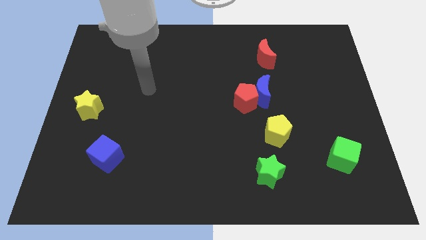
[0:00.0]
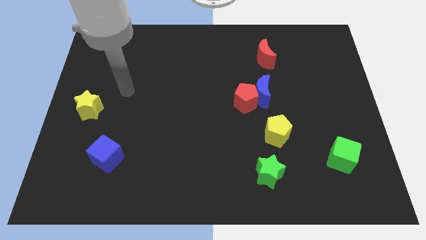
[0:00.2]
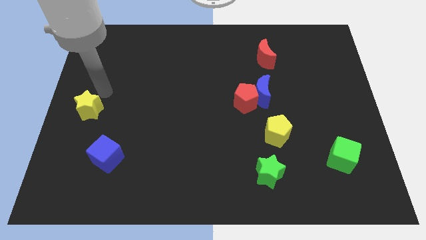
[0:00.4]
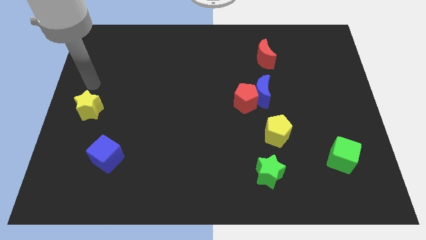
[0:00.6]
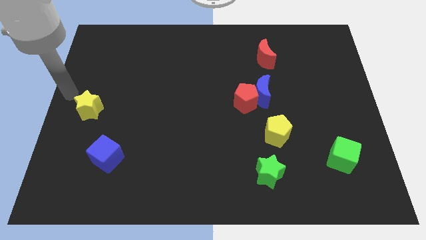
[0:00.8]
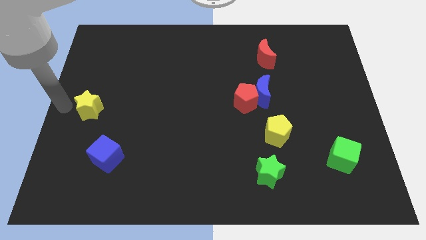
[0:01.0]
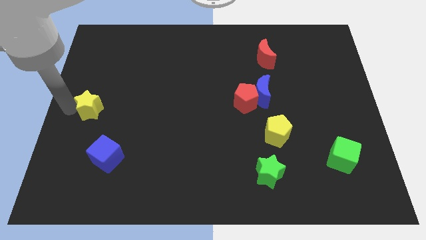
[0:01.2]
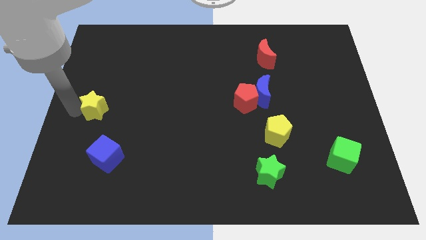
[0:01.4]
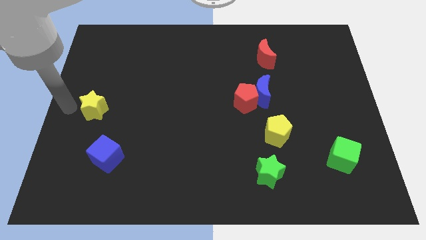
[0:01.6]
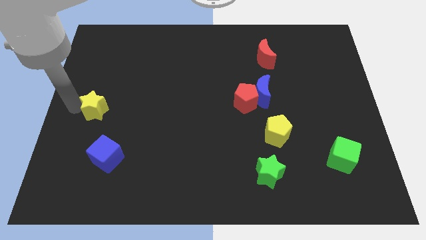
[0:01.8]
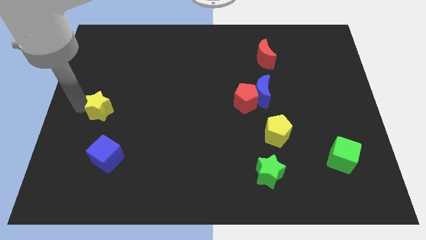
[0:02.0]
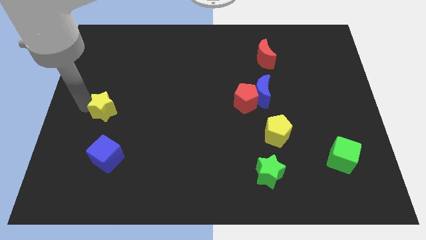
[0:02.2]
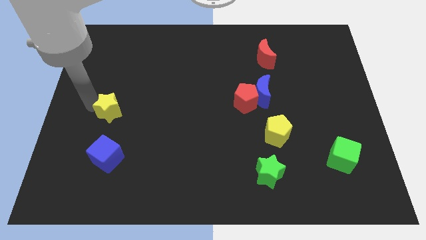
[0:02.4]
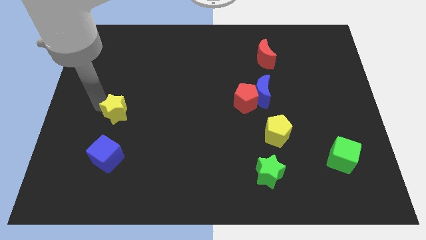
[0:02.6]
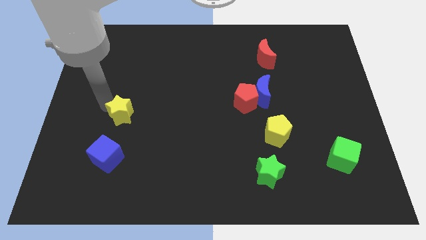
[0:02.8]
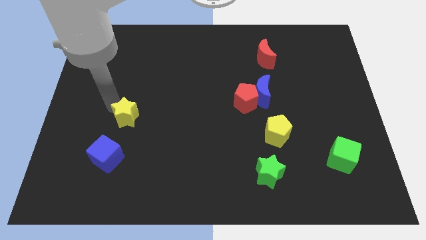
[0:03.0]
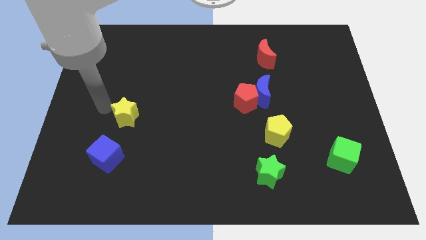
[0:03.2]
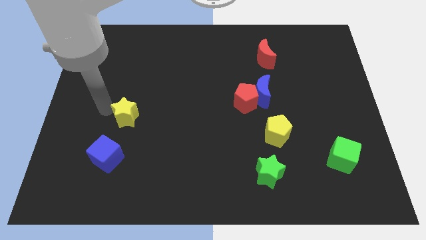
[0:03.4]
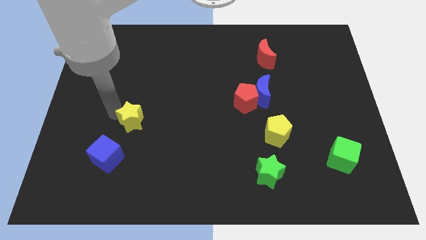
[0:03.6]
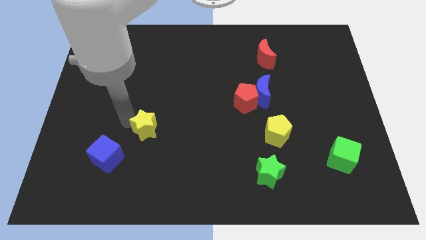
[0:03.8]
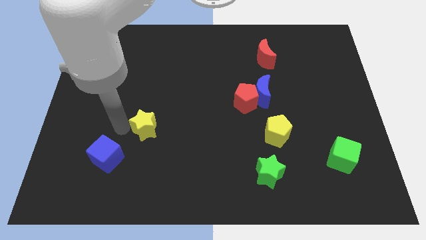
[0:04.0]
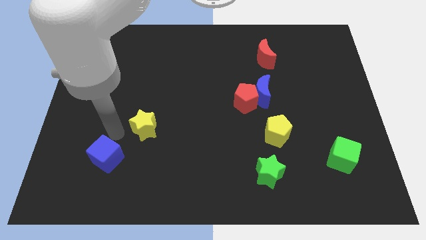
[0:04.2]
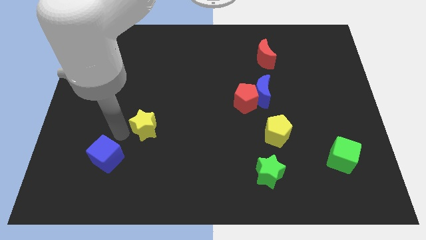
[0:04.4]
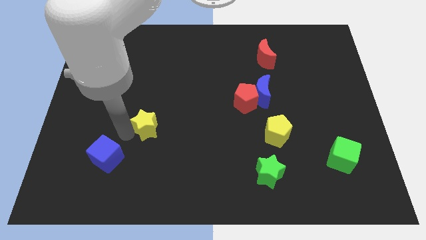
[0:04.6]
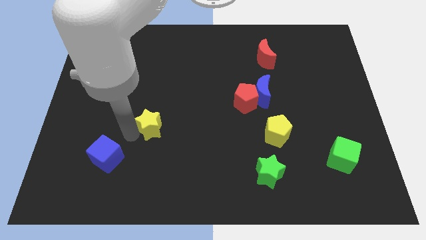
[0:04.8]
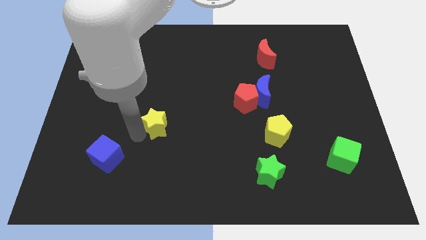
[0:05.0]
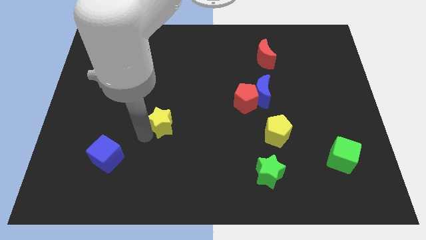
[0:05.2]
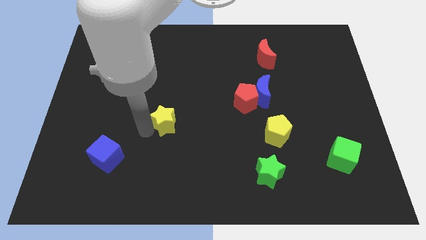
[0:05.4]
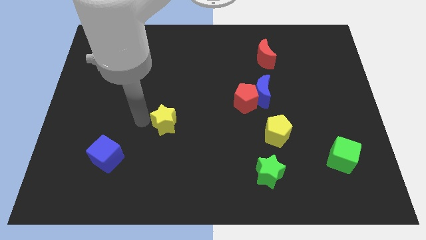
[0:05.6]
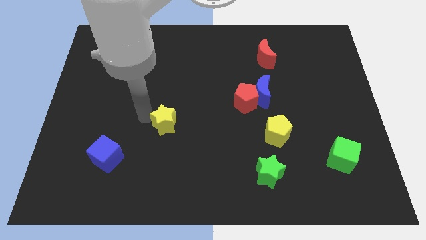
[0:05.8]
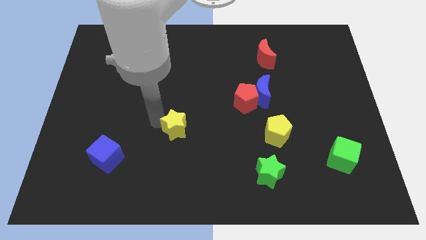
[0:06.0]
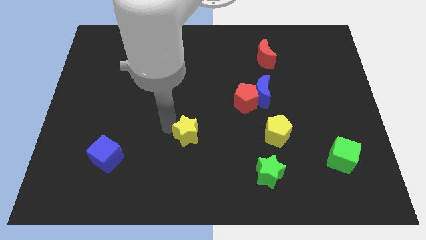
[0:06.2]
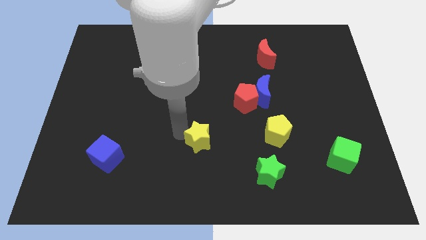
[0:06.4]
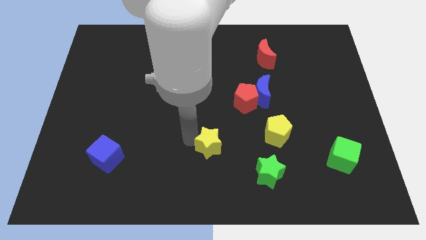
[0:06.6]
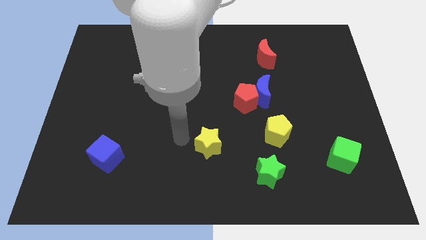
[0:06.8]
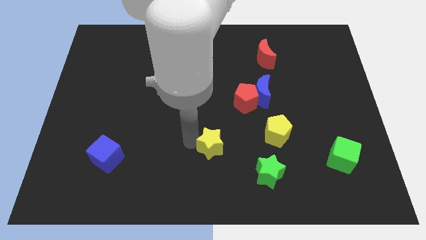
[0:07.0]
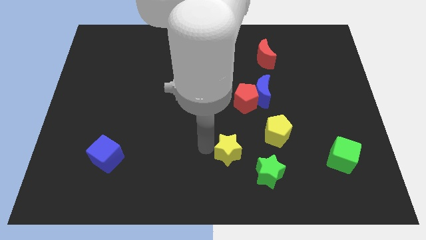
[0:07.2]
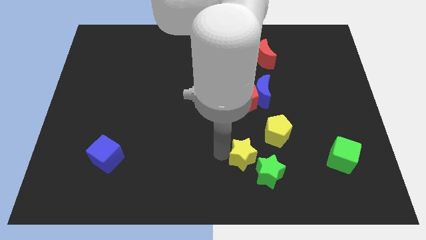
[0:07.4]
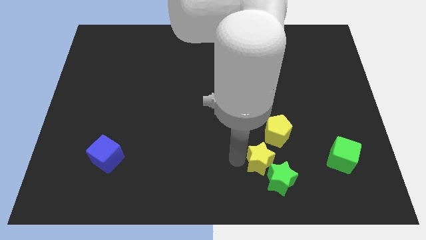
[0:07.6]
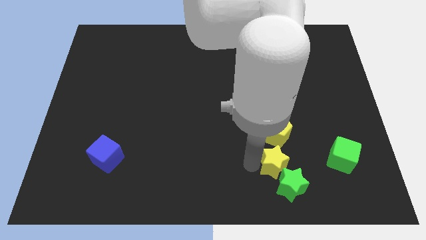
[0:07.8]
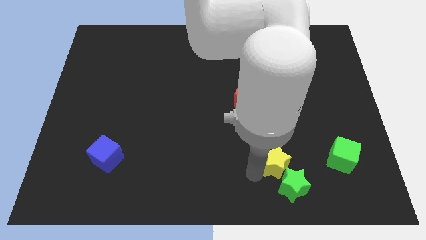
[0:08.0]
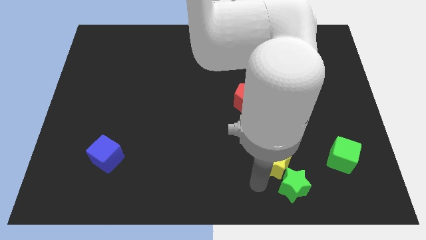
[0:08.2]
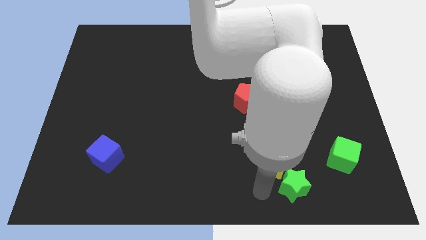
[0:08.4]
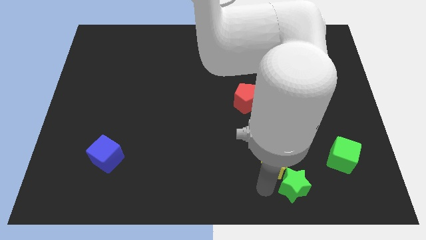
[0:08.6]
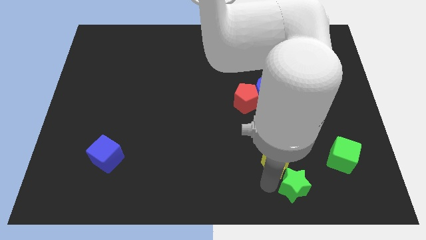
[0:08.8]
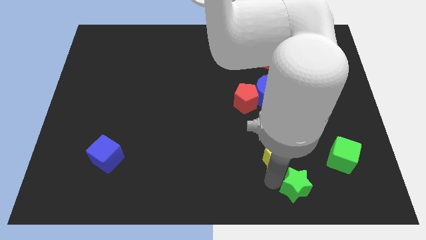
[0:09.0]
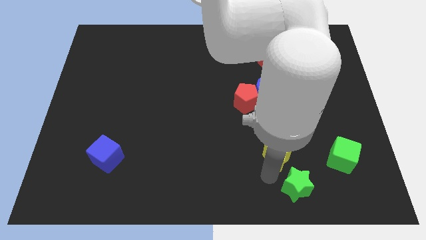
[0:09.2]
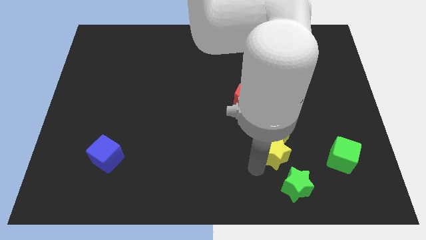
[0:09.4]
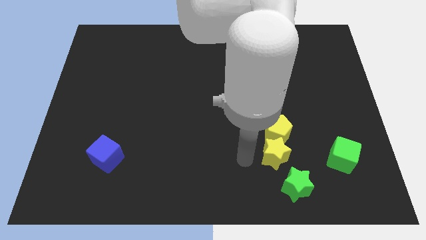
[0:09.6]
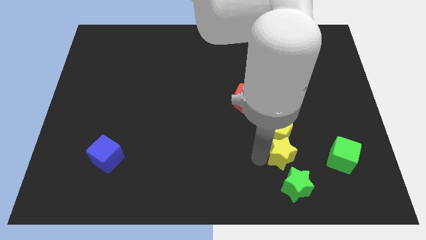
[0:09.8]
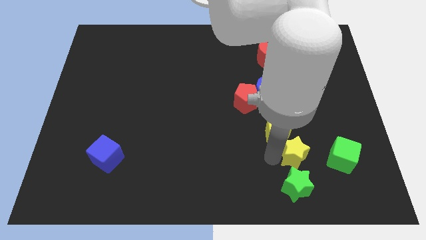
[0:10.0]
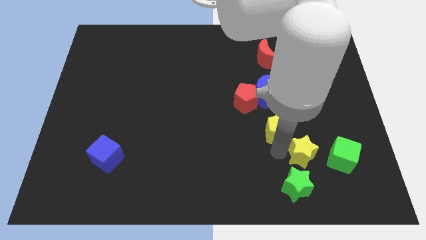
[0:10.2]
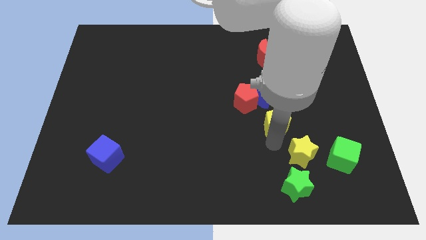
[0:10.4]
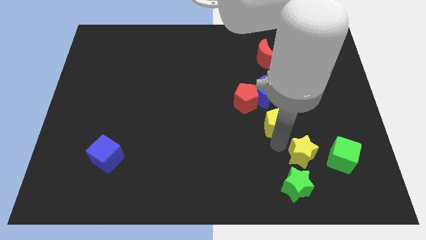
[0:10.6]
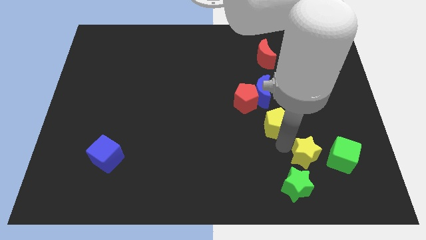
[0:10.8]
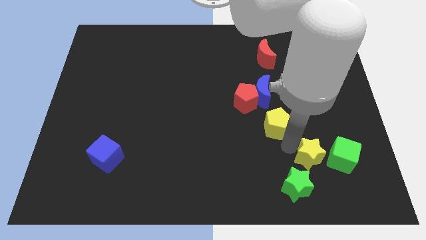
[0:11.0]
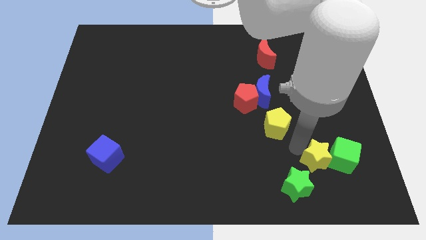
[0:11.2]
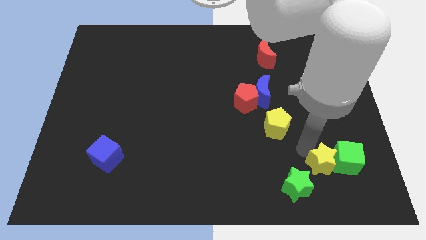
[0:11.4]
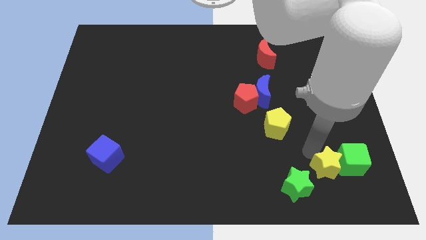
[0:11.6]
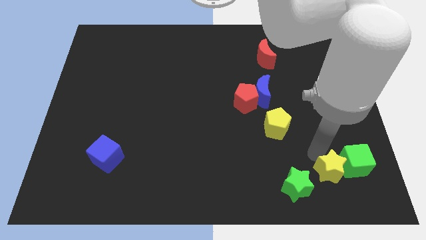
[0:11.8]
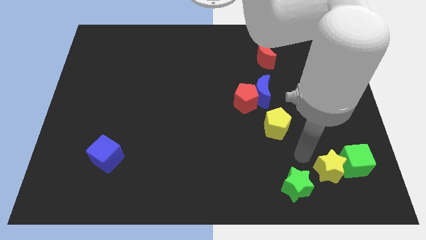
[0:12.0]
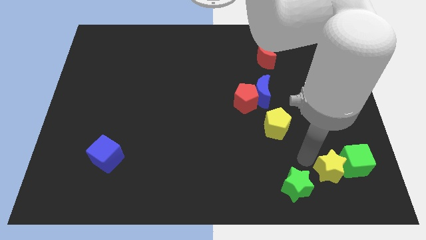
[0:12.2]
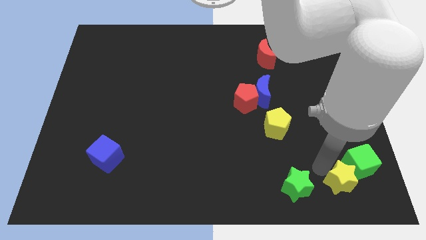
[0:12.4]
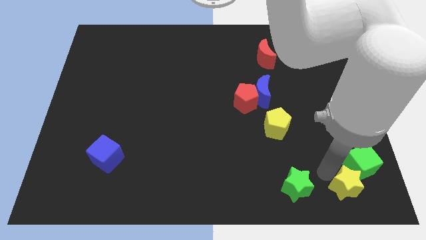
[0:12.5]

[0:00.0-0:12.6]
slide the yellow star to the bottom right corner

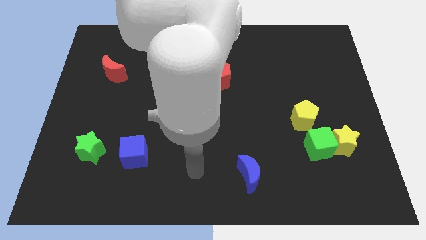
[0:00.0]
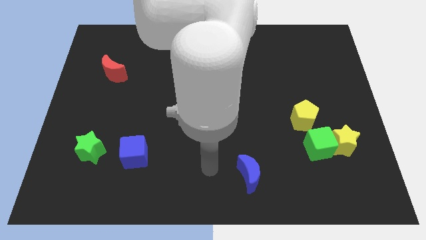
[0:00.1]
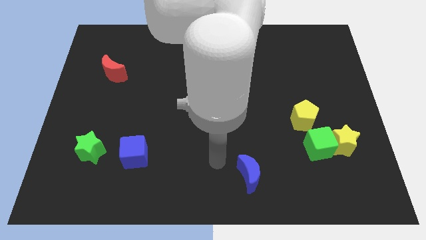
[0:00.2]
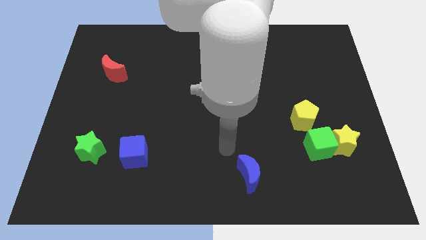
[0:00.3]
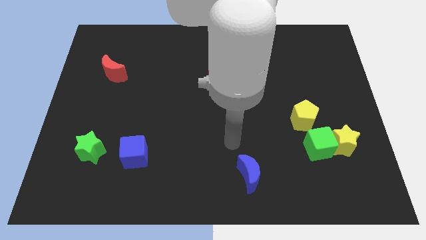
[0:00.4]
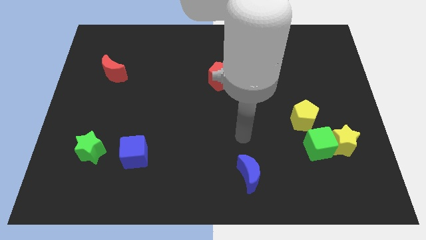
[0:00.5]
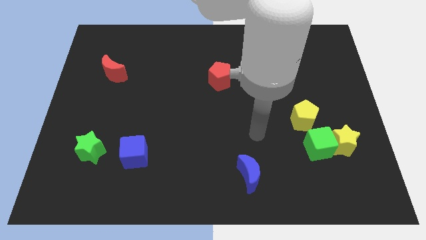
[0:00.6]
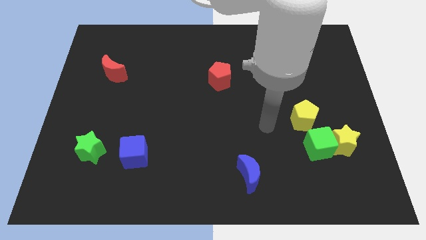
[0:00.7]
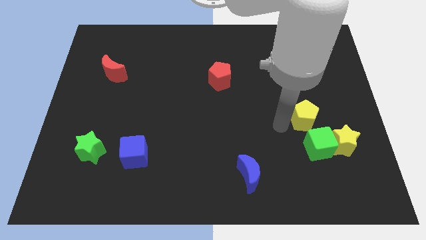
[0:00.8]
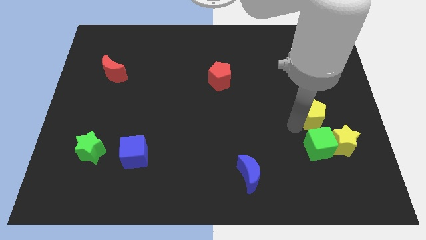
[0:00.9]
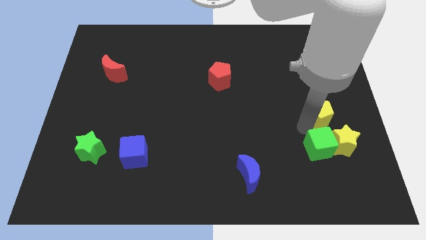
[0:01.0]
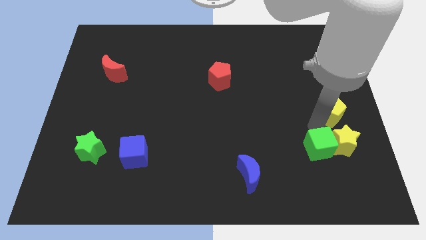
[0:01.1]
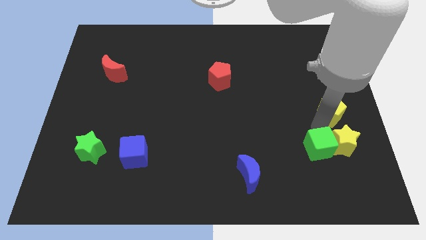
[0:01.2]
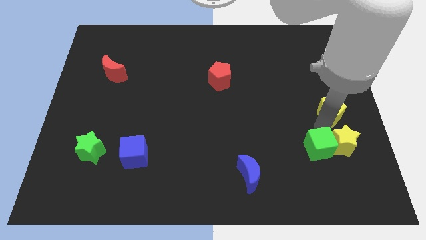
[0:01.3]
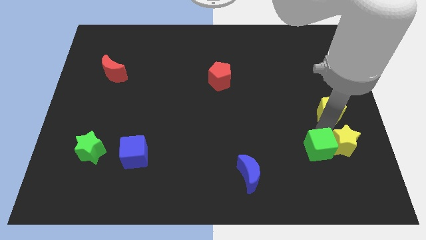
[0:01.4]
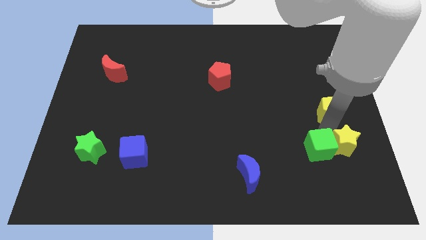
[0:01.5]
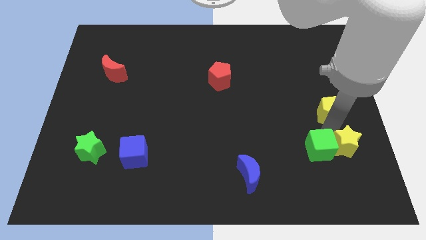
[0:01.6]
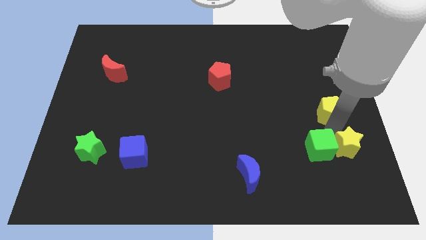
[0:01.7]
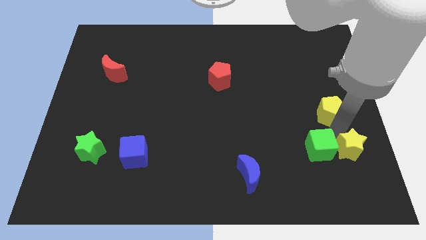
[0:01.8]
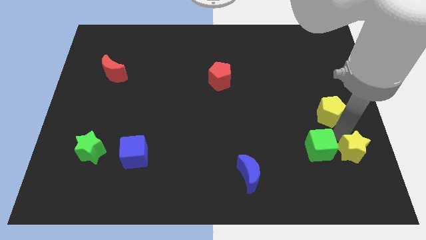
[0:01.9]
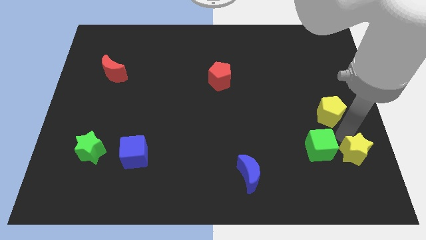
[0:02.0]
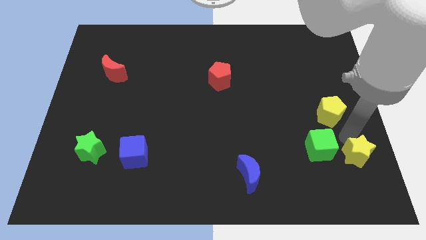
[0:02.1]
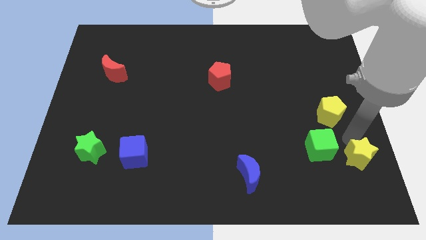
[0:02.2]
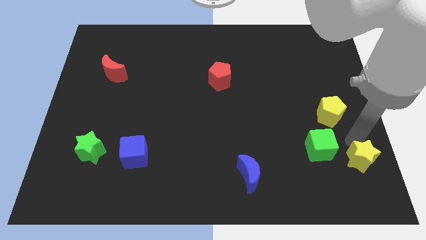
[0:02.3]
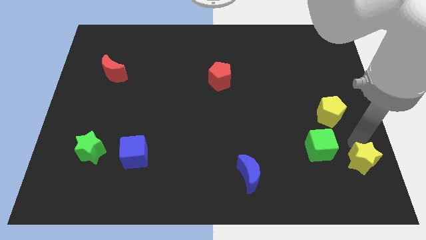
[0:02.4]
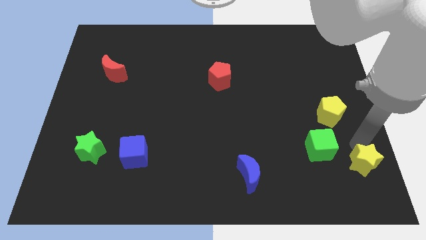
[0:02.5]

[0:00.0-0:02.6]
push the yellow star to the bottom right of the board
